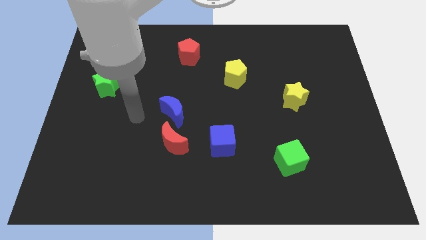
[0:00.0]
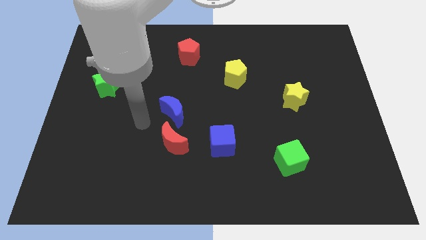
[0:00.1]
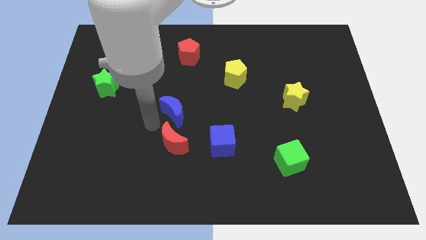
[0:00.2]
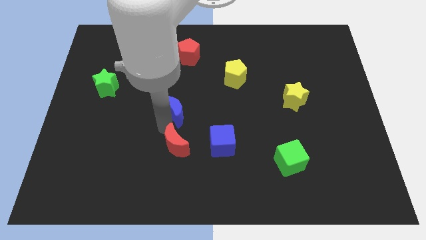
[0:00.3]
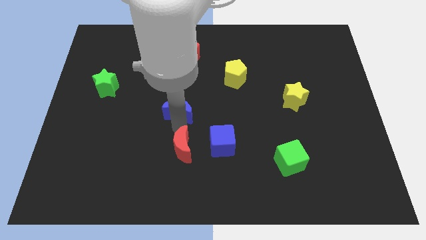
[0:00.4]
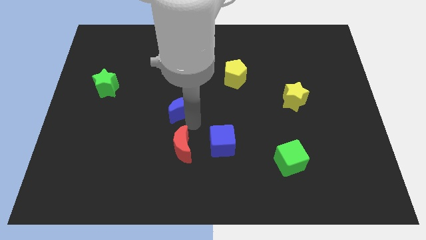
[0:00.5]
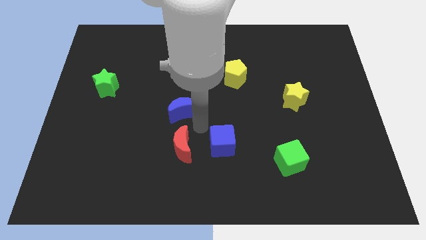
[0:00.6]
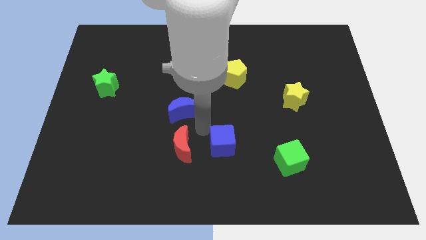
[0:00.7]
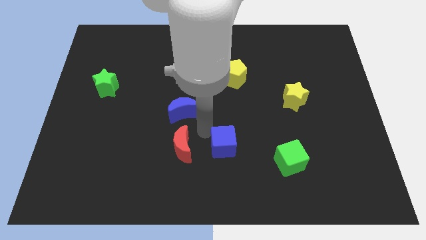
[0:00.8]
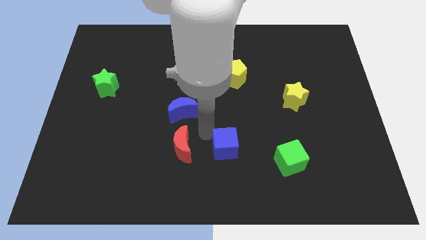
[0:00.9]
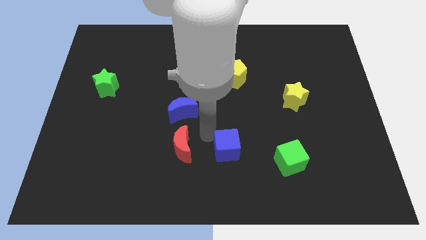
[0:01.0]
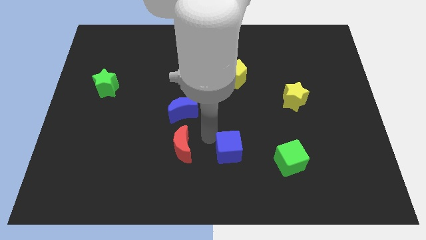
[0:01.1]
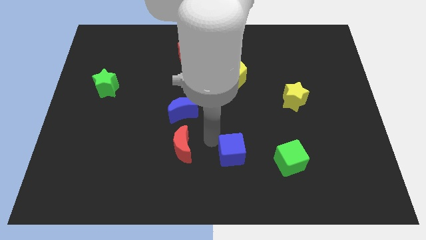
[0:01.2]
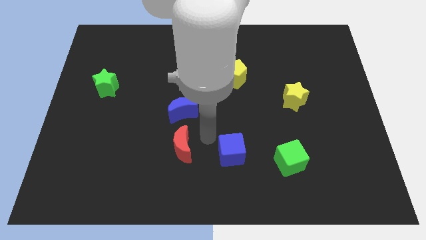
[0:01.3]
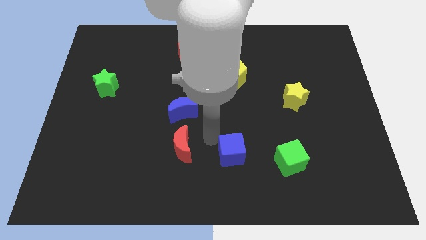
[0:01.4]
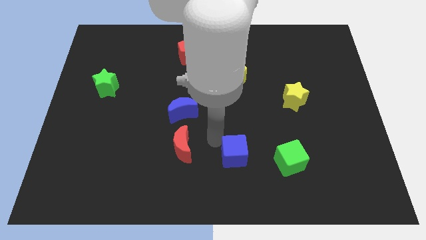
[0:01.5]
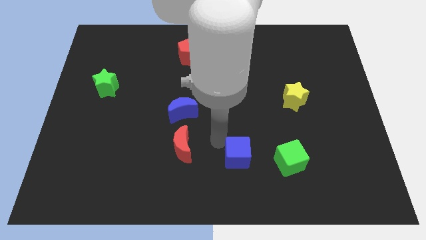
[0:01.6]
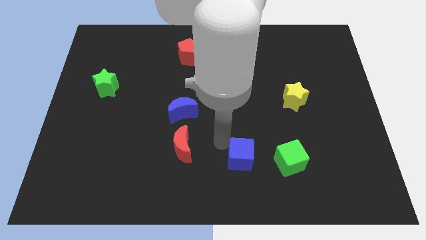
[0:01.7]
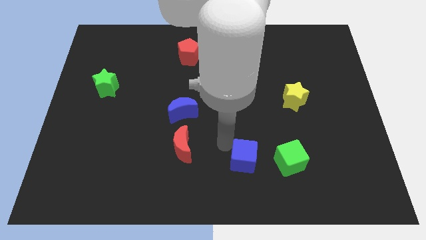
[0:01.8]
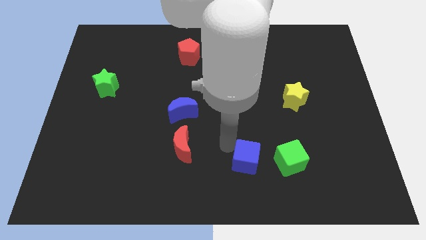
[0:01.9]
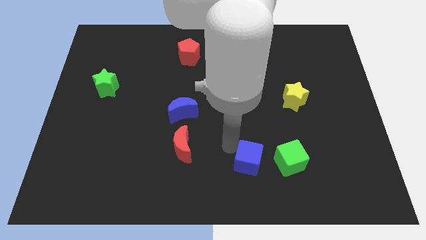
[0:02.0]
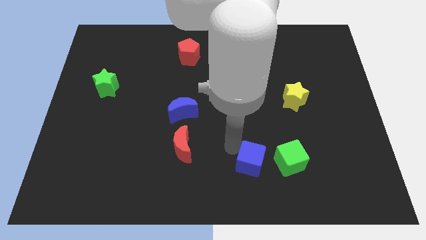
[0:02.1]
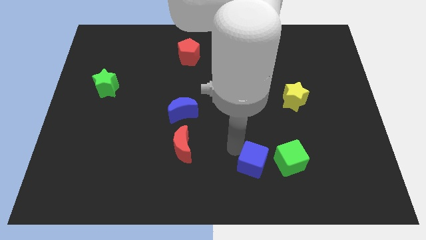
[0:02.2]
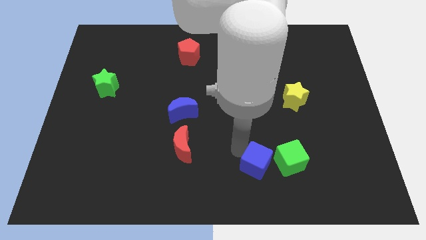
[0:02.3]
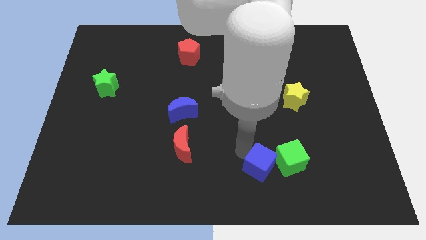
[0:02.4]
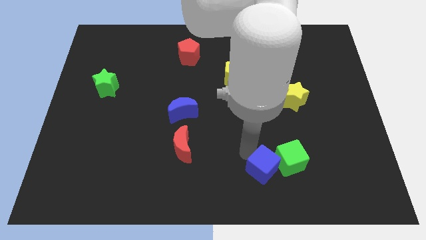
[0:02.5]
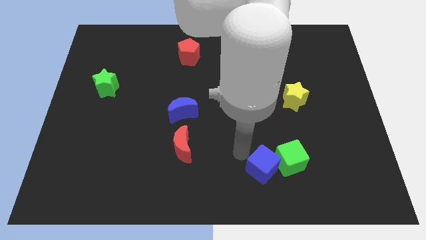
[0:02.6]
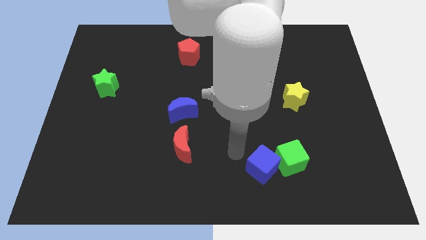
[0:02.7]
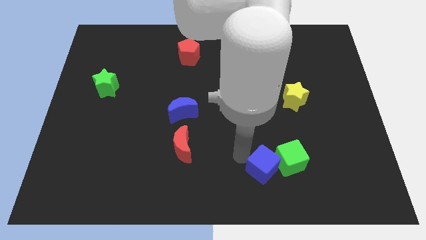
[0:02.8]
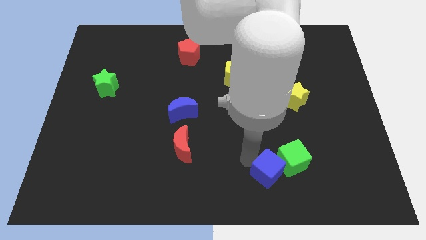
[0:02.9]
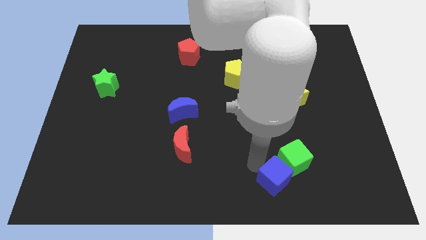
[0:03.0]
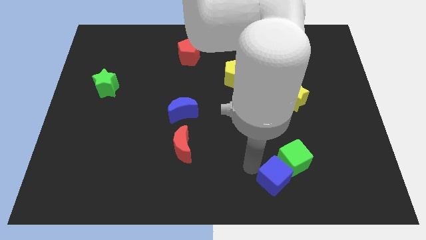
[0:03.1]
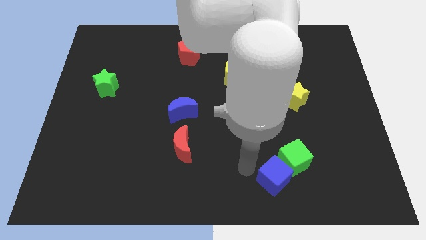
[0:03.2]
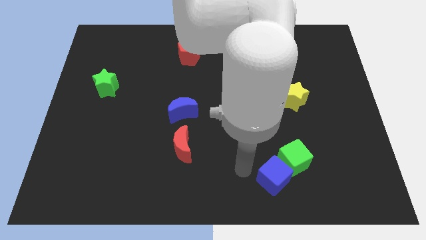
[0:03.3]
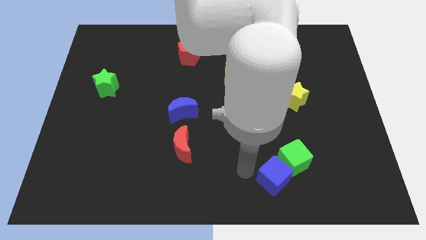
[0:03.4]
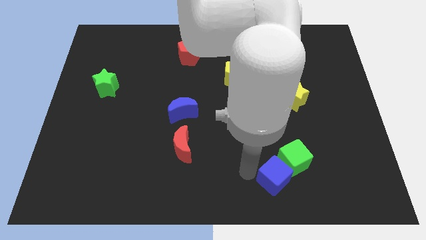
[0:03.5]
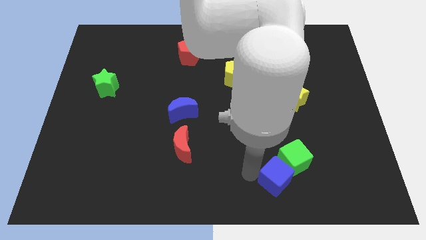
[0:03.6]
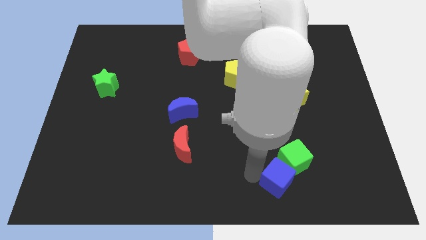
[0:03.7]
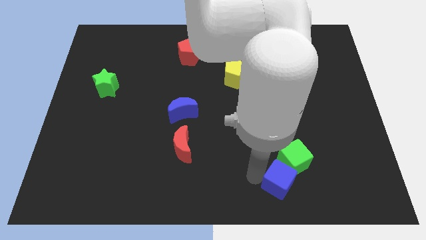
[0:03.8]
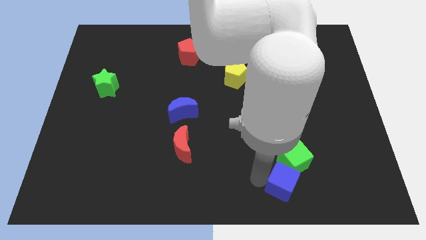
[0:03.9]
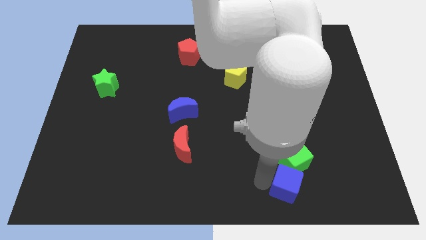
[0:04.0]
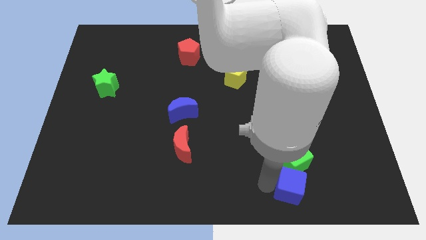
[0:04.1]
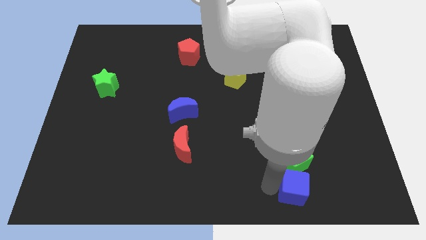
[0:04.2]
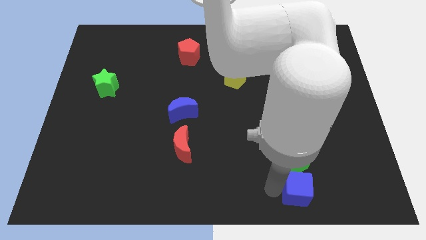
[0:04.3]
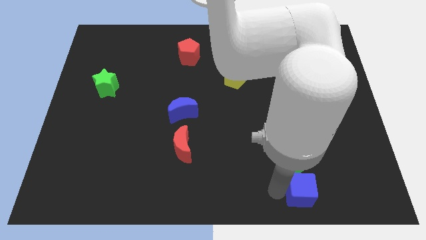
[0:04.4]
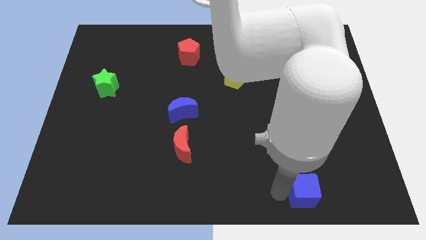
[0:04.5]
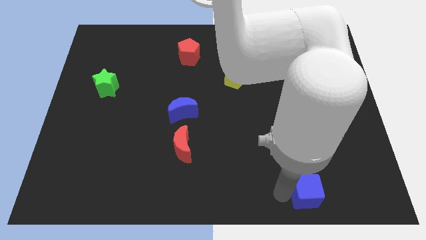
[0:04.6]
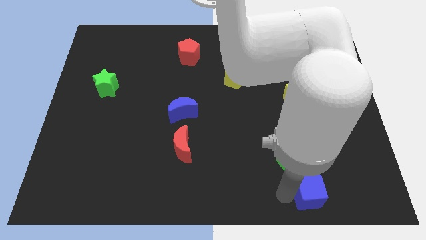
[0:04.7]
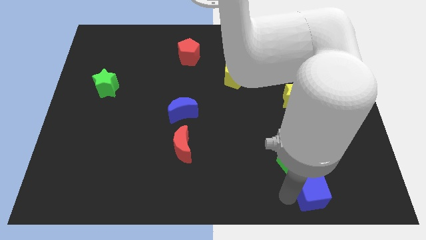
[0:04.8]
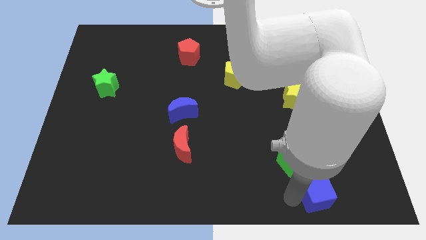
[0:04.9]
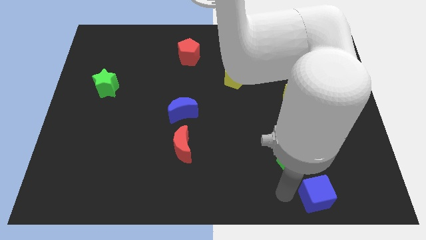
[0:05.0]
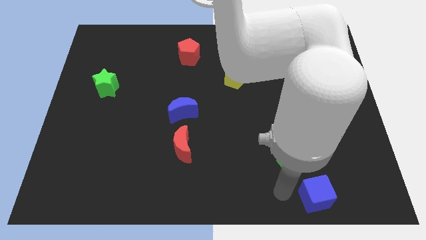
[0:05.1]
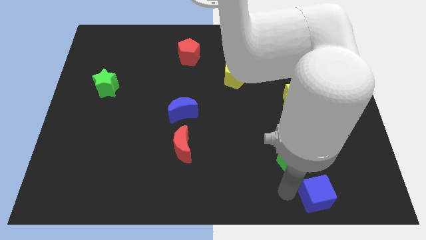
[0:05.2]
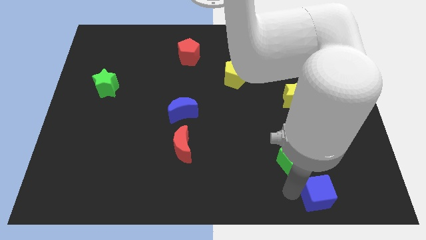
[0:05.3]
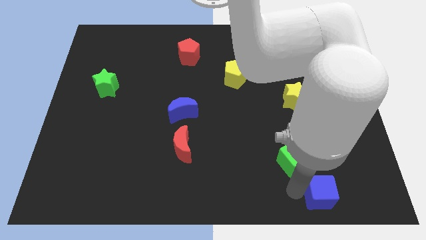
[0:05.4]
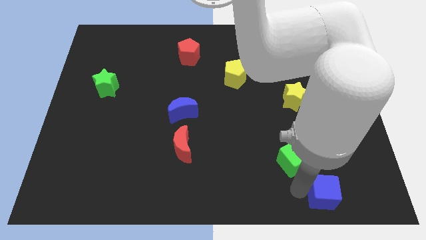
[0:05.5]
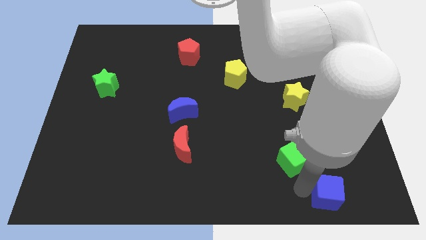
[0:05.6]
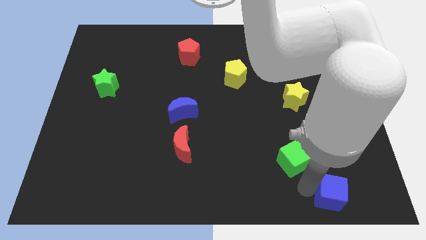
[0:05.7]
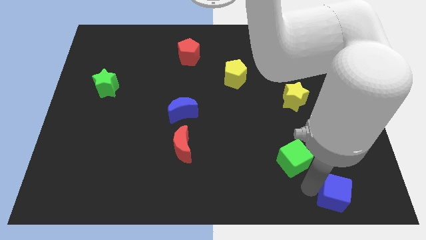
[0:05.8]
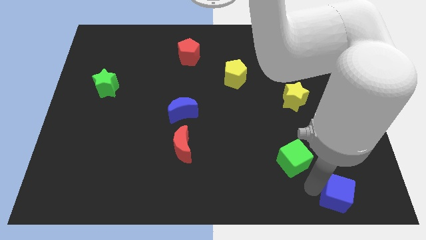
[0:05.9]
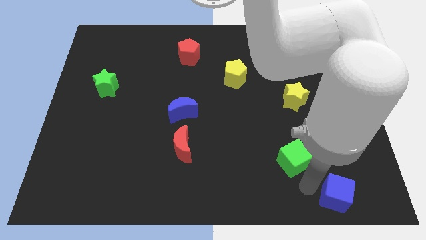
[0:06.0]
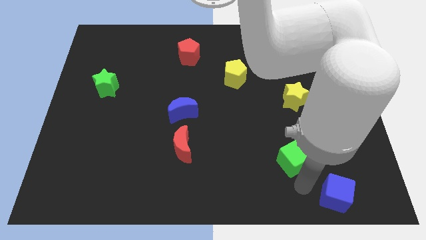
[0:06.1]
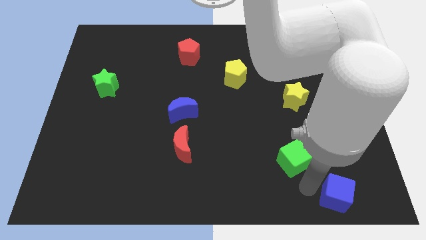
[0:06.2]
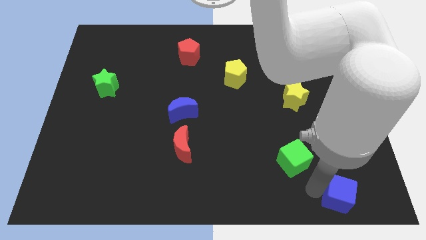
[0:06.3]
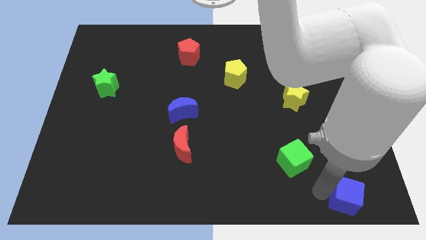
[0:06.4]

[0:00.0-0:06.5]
slide the blue cube to the bottom right
